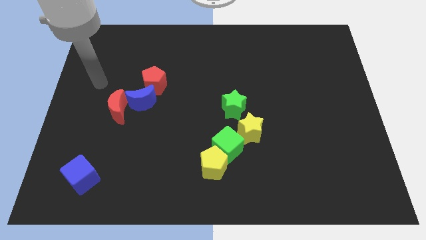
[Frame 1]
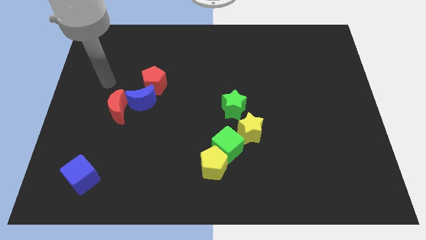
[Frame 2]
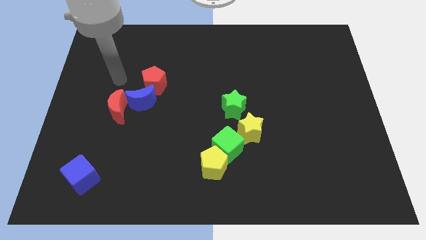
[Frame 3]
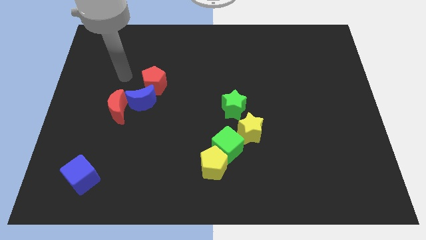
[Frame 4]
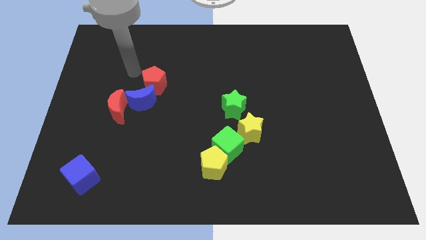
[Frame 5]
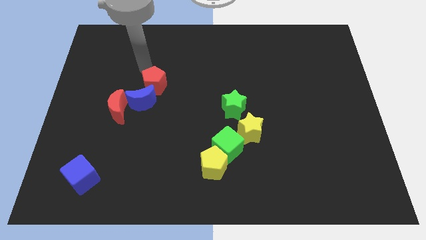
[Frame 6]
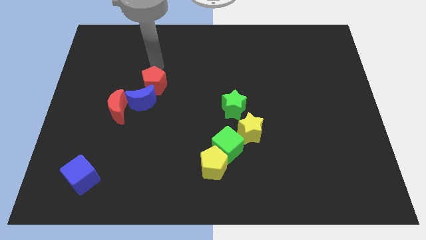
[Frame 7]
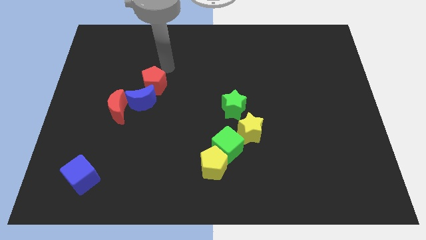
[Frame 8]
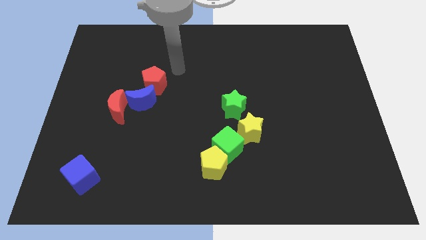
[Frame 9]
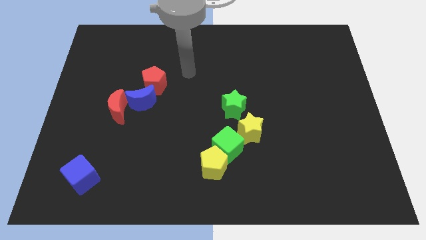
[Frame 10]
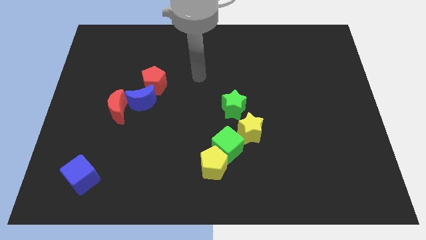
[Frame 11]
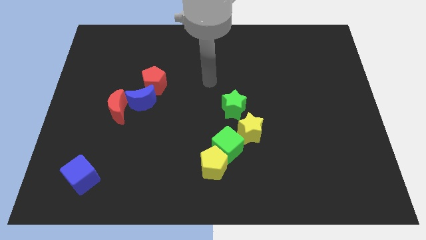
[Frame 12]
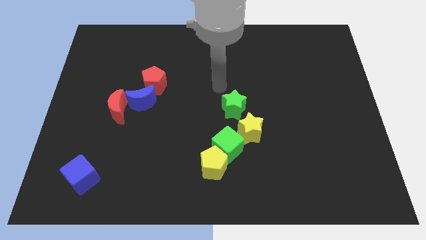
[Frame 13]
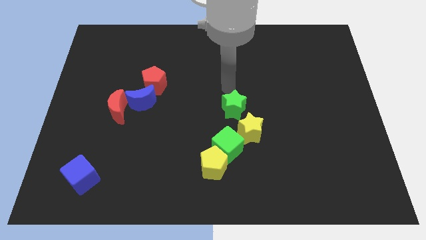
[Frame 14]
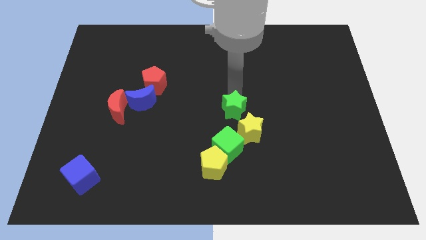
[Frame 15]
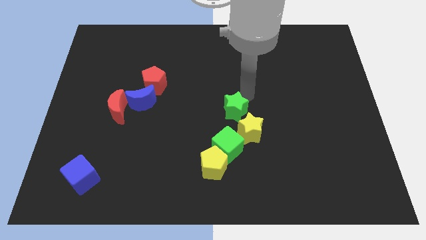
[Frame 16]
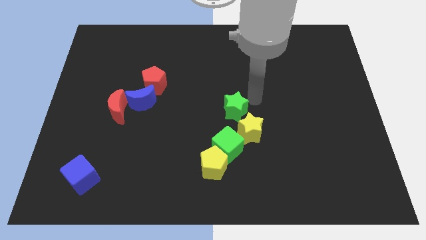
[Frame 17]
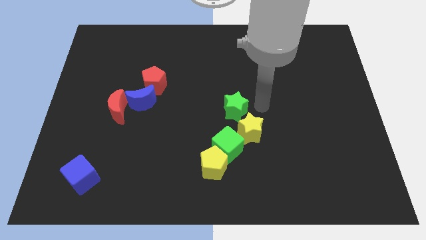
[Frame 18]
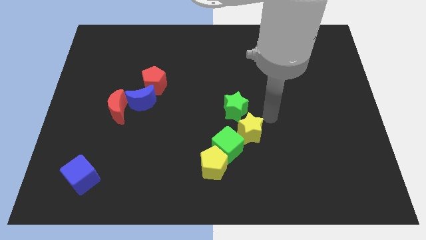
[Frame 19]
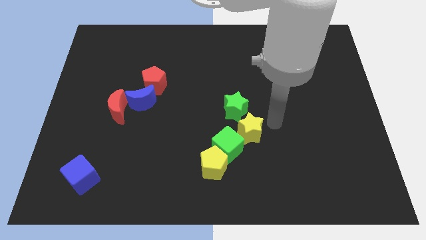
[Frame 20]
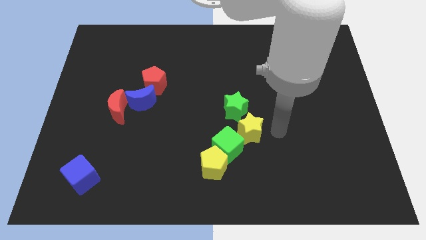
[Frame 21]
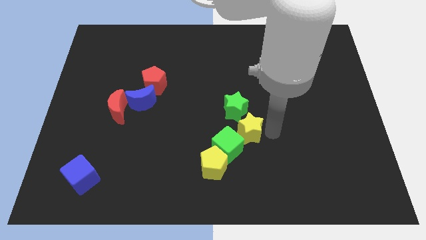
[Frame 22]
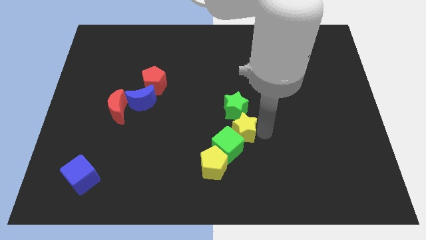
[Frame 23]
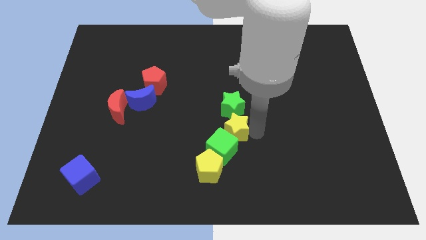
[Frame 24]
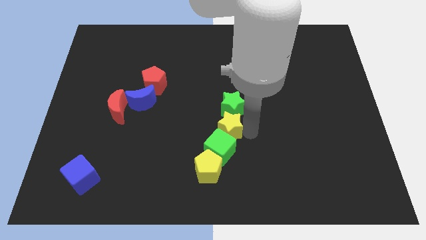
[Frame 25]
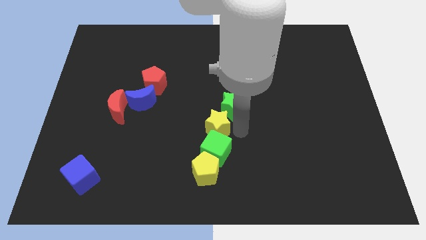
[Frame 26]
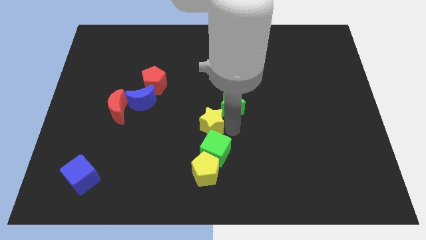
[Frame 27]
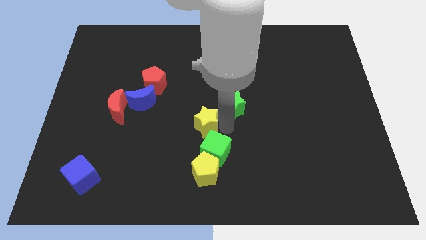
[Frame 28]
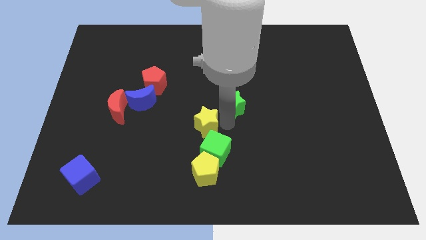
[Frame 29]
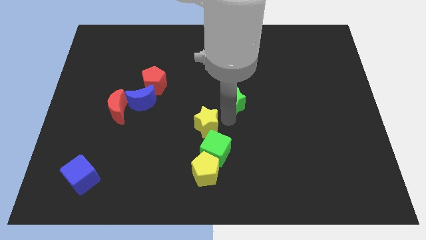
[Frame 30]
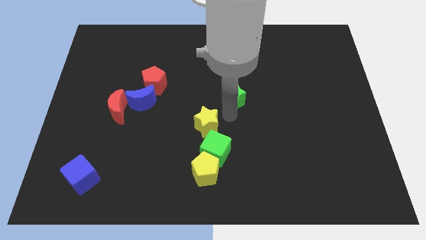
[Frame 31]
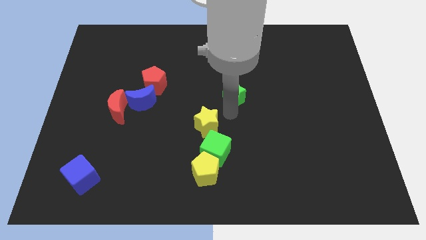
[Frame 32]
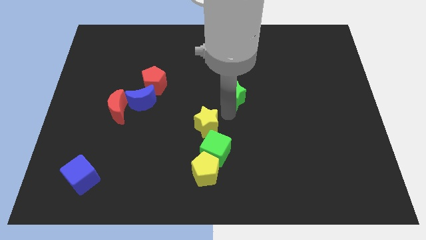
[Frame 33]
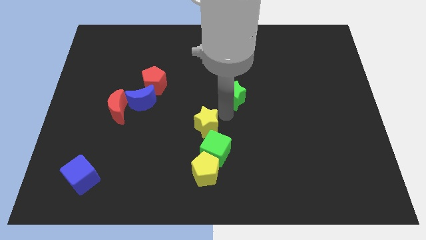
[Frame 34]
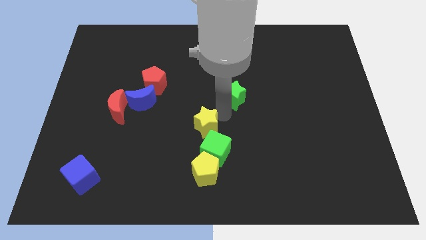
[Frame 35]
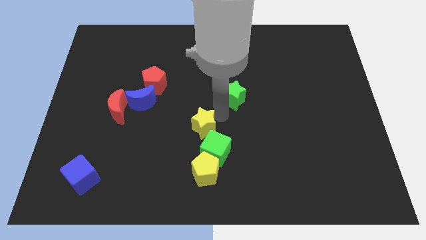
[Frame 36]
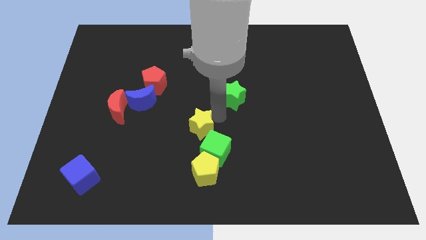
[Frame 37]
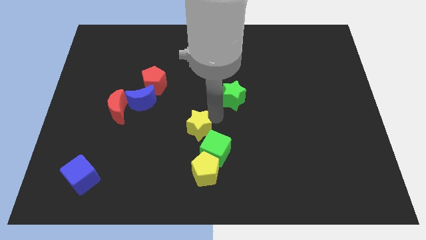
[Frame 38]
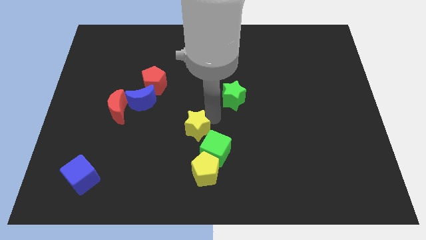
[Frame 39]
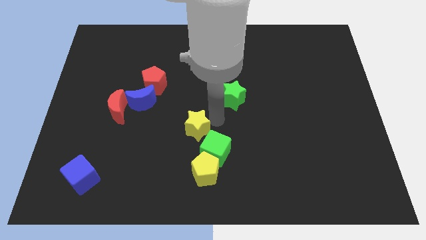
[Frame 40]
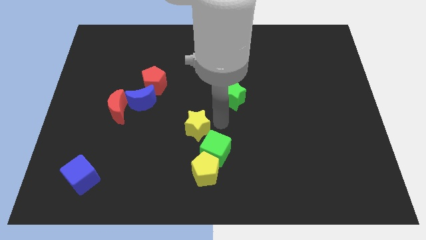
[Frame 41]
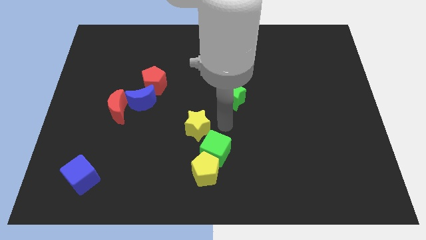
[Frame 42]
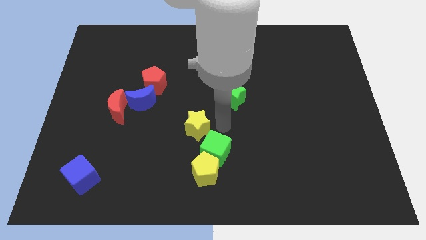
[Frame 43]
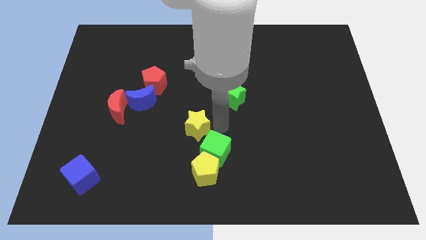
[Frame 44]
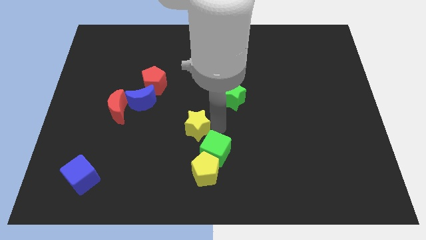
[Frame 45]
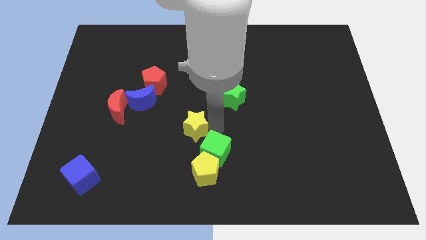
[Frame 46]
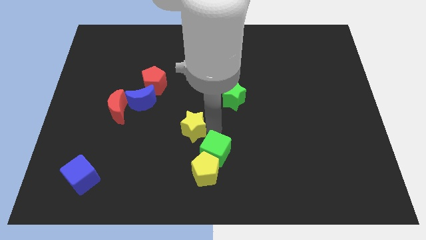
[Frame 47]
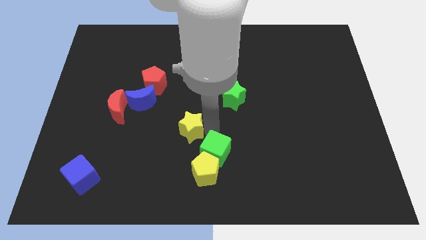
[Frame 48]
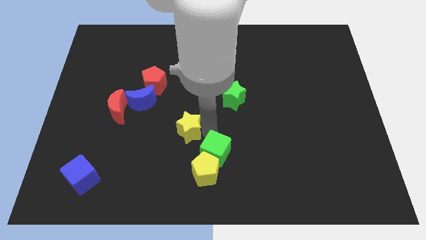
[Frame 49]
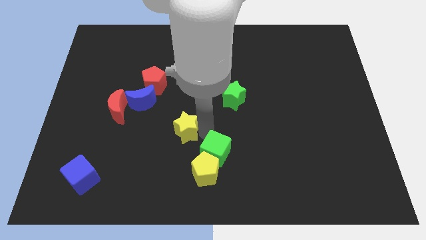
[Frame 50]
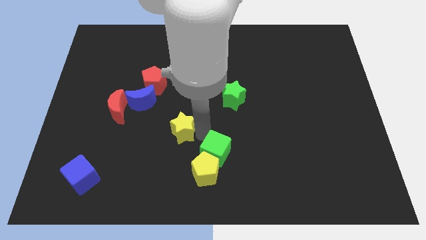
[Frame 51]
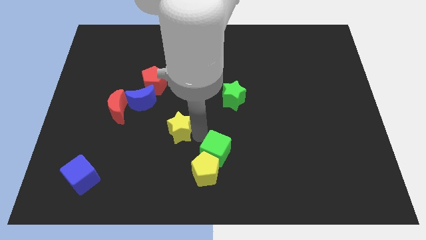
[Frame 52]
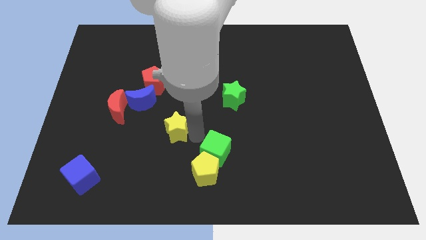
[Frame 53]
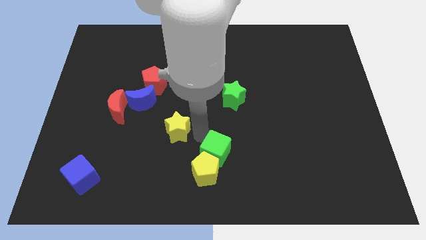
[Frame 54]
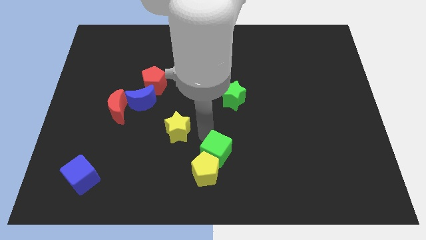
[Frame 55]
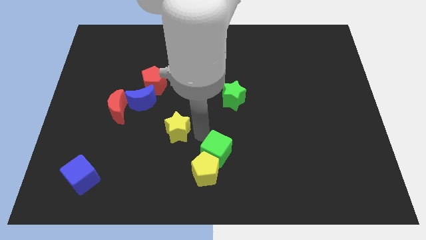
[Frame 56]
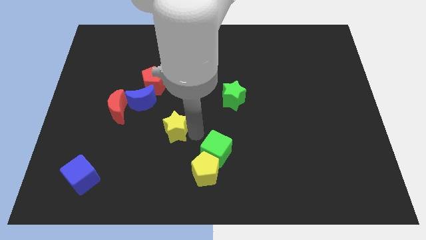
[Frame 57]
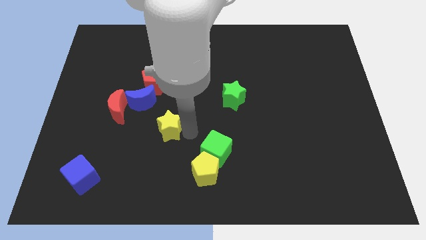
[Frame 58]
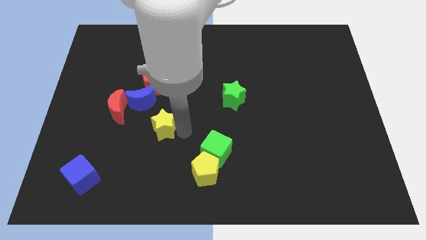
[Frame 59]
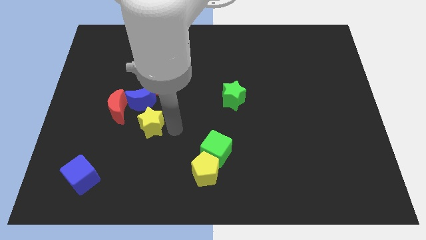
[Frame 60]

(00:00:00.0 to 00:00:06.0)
slide the yellow star to the left

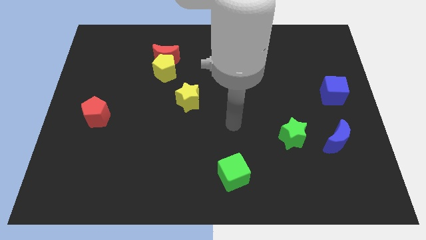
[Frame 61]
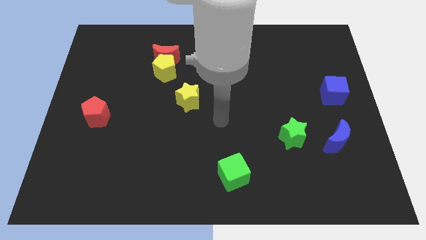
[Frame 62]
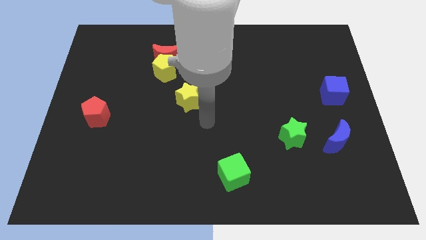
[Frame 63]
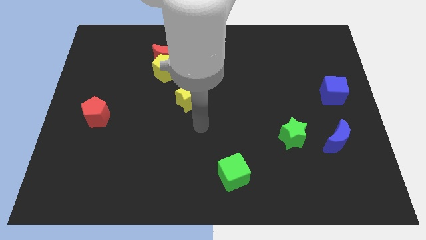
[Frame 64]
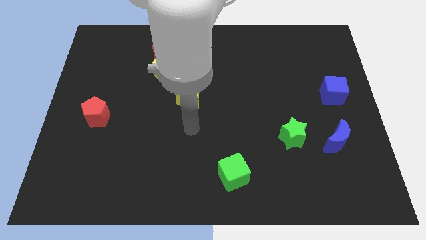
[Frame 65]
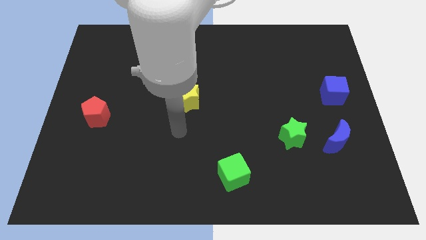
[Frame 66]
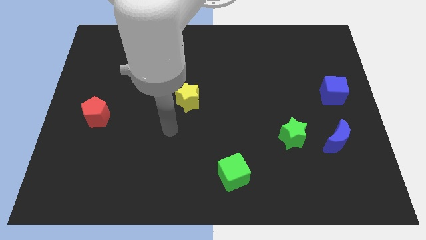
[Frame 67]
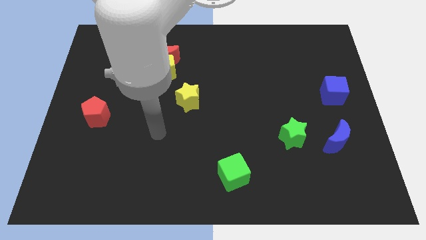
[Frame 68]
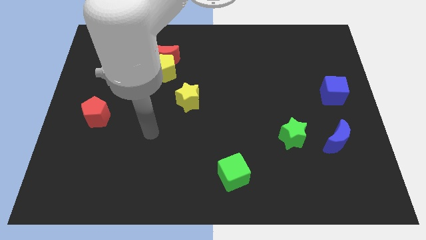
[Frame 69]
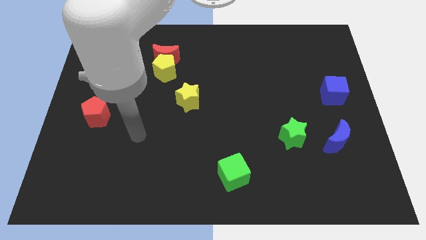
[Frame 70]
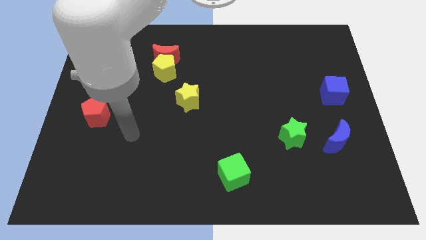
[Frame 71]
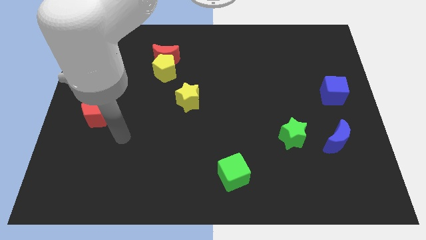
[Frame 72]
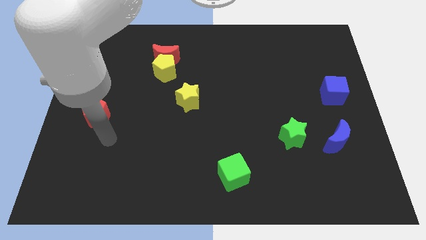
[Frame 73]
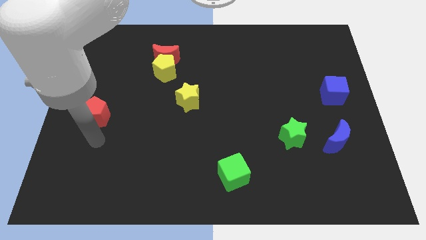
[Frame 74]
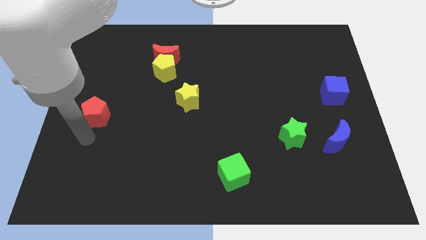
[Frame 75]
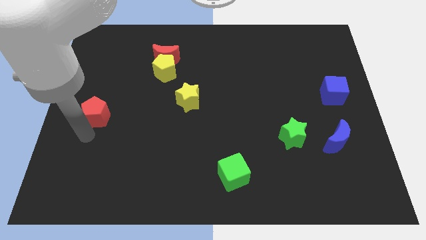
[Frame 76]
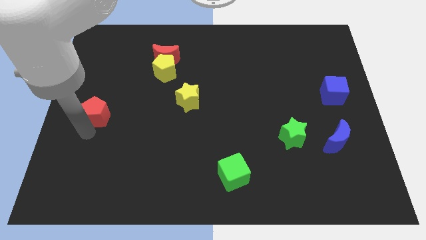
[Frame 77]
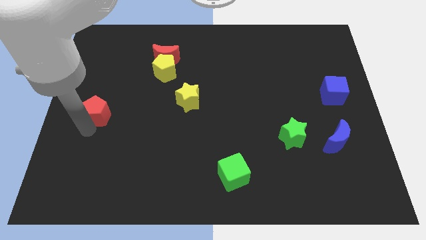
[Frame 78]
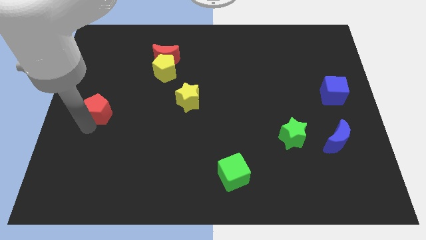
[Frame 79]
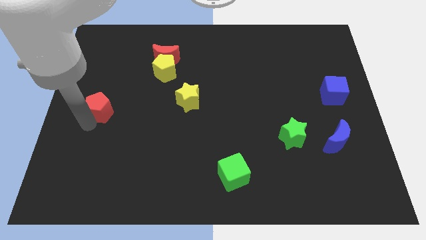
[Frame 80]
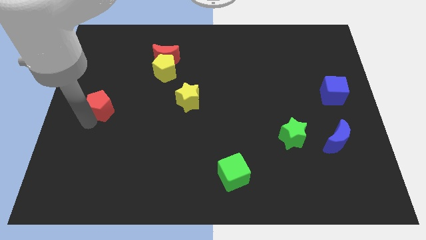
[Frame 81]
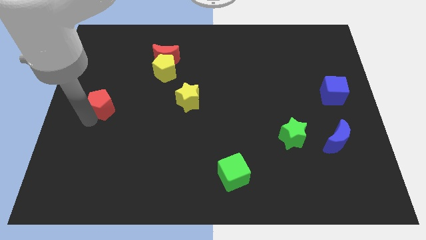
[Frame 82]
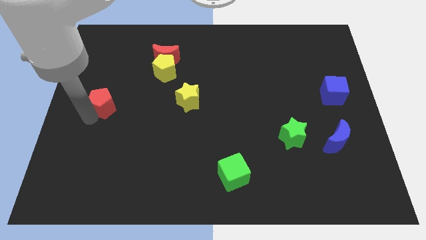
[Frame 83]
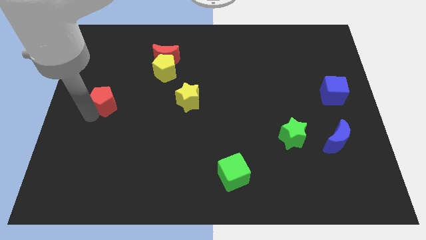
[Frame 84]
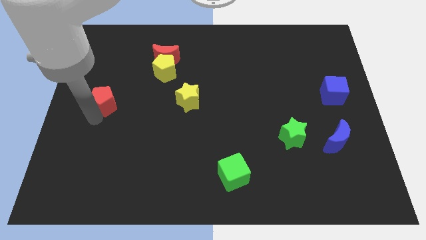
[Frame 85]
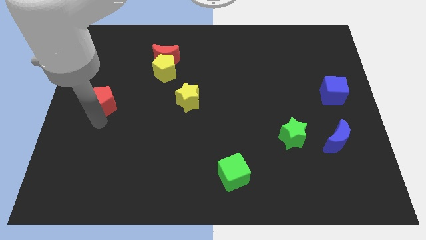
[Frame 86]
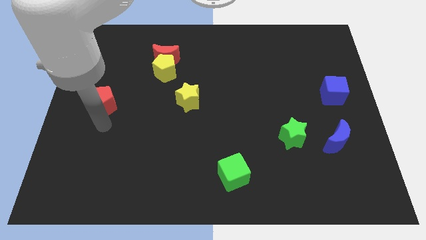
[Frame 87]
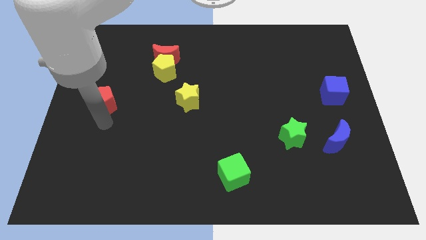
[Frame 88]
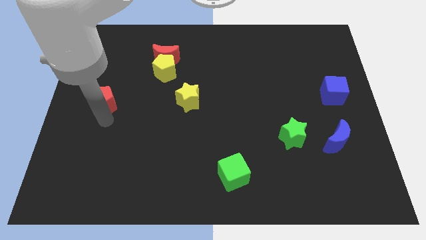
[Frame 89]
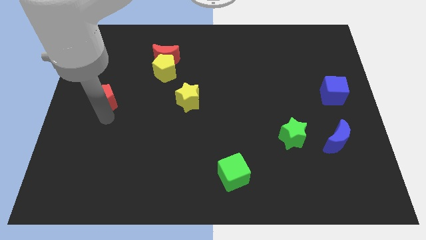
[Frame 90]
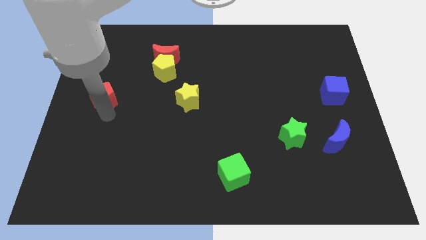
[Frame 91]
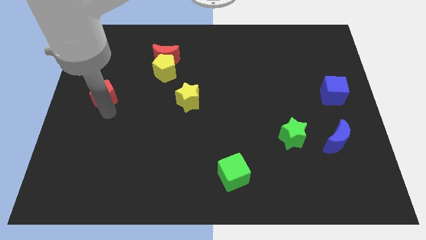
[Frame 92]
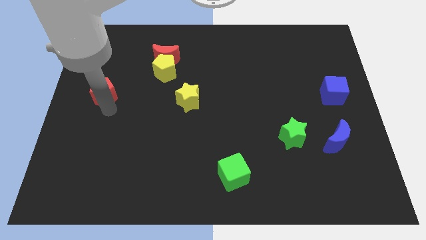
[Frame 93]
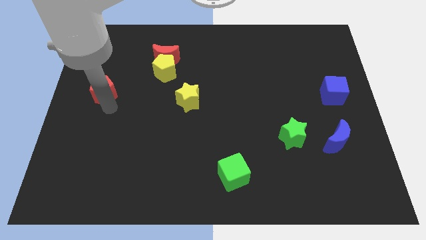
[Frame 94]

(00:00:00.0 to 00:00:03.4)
slide the red pentagon a little upwards
